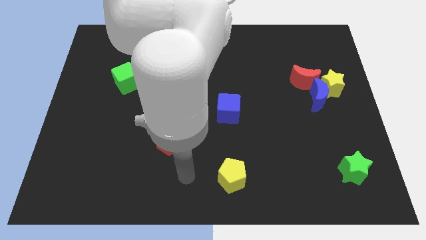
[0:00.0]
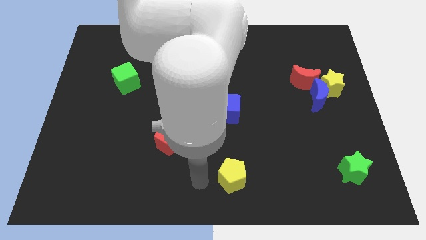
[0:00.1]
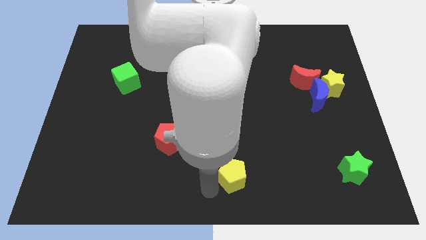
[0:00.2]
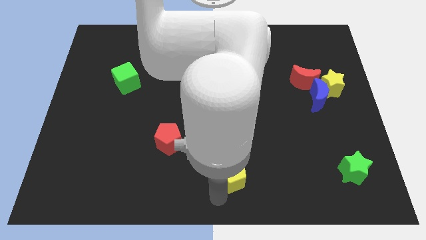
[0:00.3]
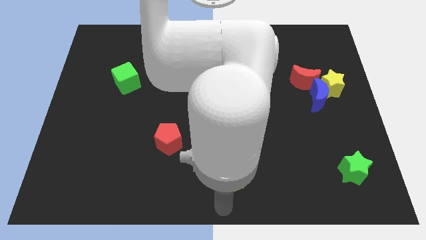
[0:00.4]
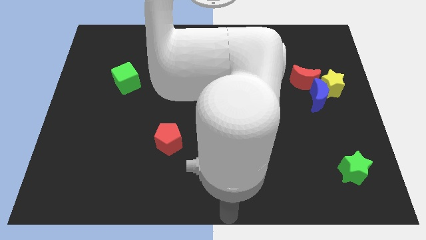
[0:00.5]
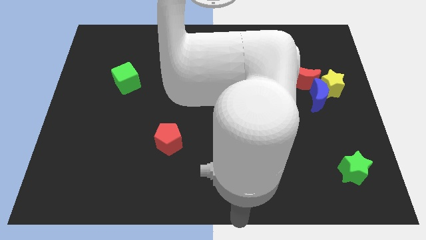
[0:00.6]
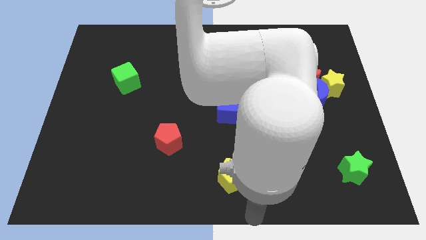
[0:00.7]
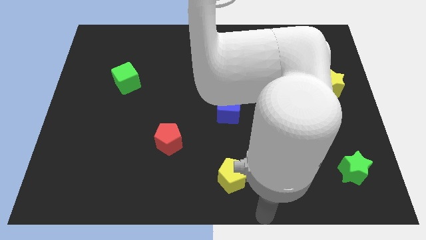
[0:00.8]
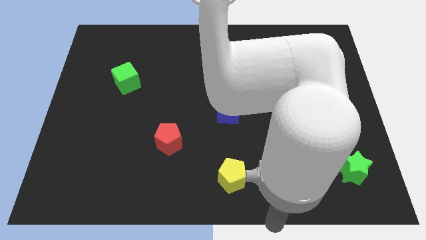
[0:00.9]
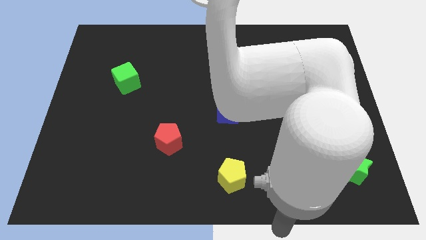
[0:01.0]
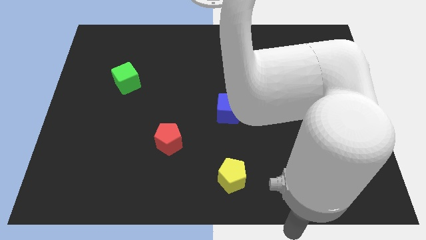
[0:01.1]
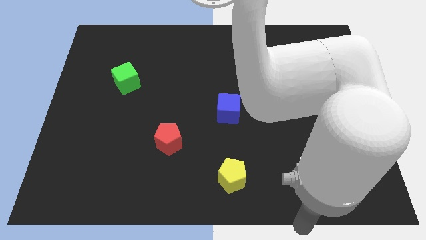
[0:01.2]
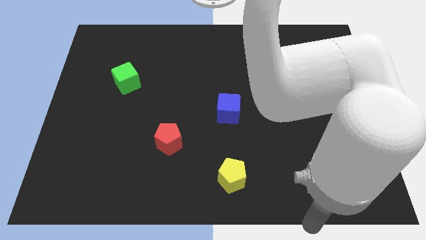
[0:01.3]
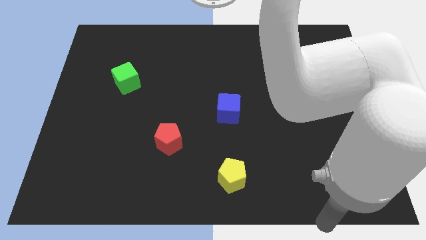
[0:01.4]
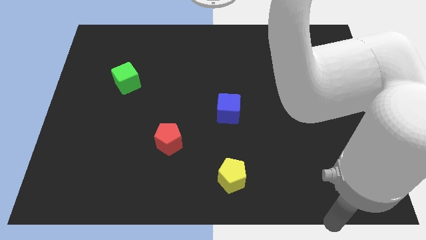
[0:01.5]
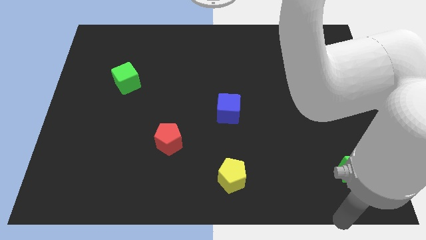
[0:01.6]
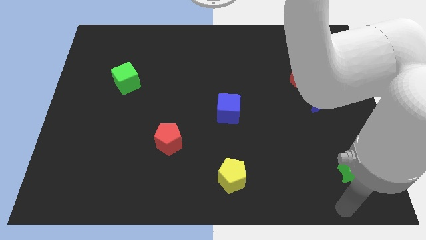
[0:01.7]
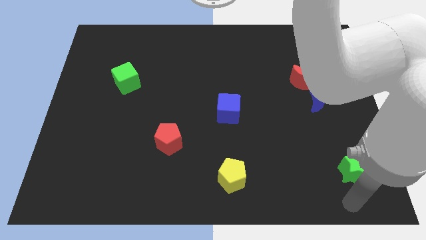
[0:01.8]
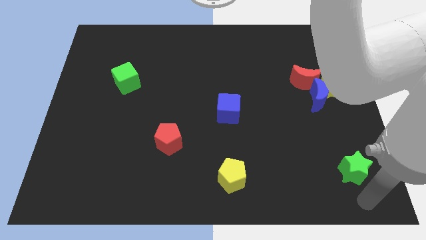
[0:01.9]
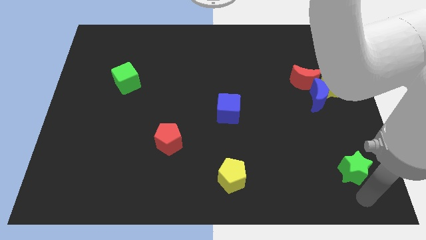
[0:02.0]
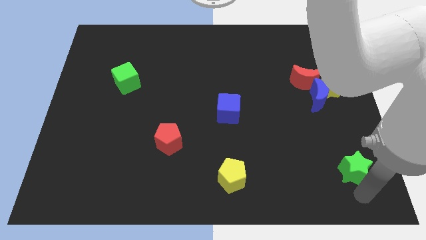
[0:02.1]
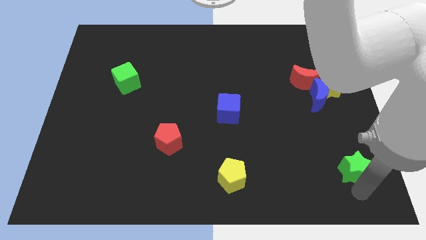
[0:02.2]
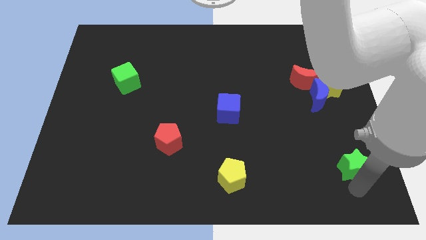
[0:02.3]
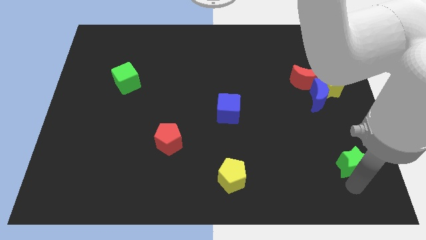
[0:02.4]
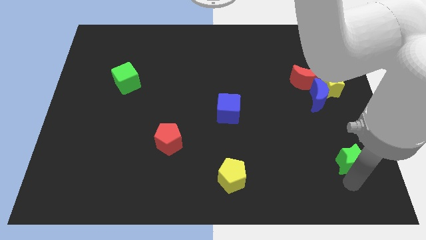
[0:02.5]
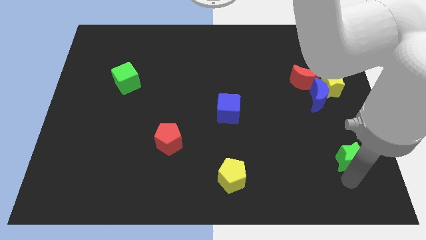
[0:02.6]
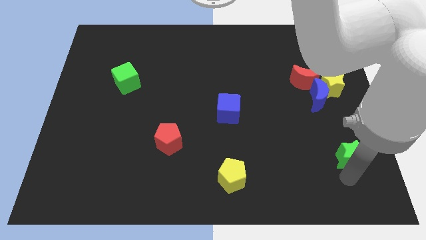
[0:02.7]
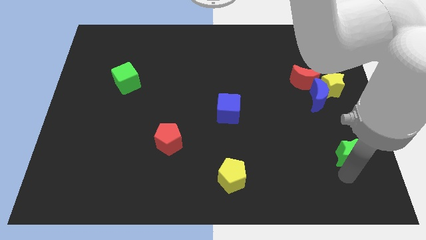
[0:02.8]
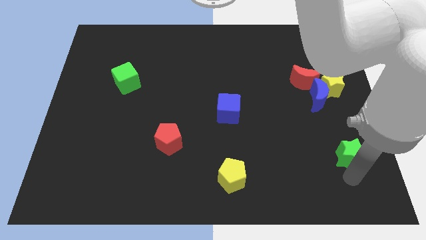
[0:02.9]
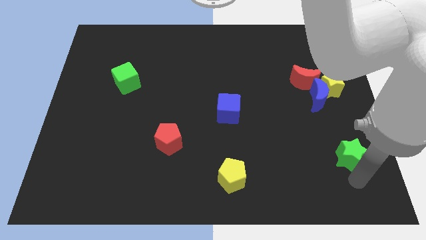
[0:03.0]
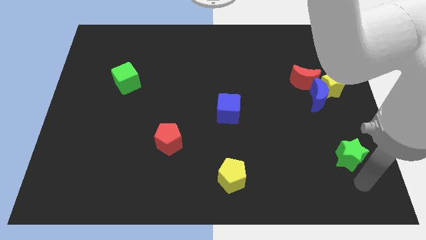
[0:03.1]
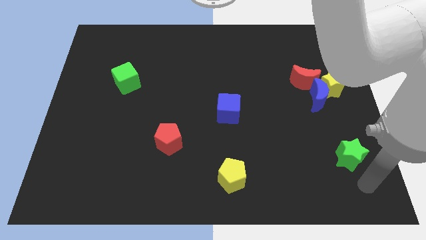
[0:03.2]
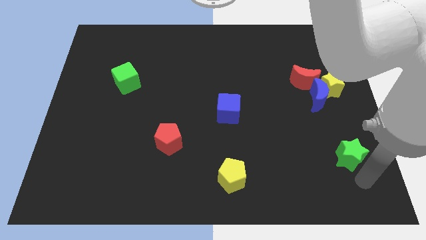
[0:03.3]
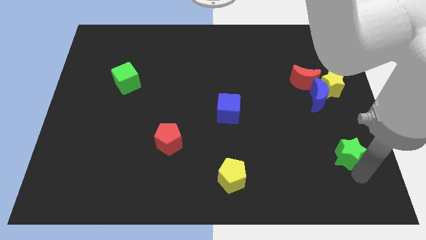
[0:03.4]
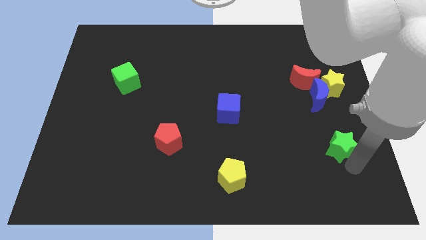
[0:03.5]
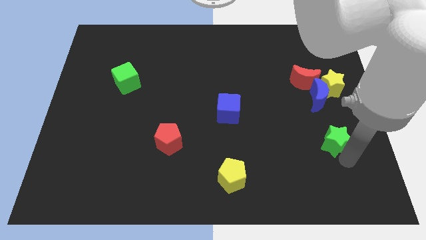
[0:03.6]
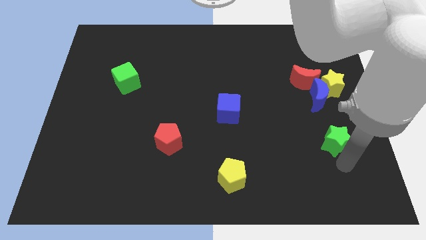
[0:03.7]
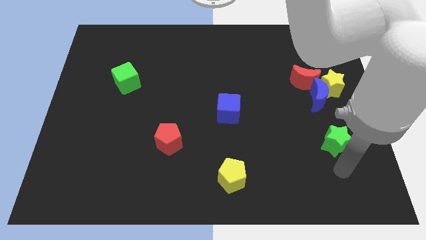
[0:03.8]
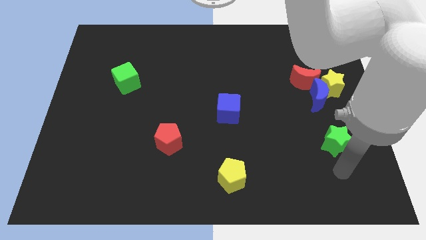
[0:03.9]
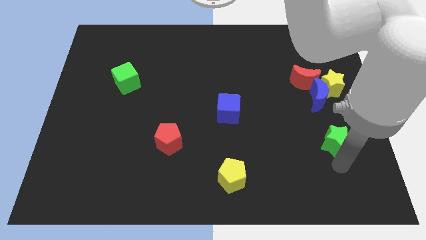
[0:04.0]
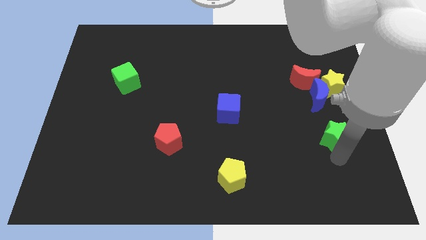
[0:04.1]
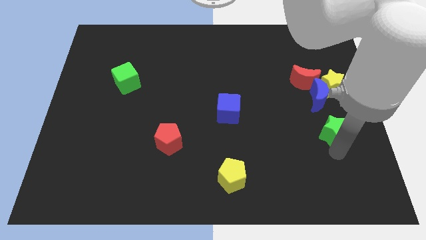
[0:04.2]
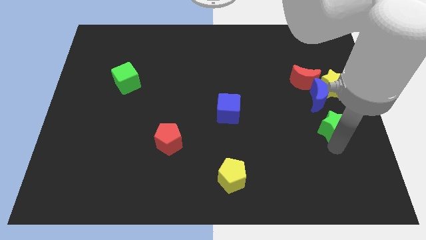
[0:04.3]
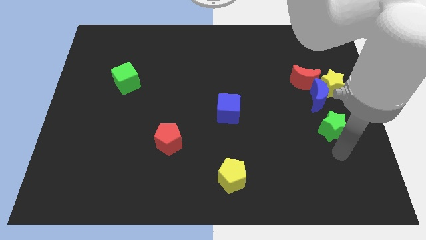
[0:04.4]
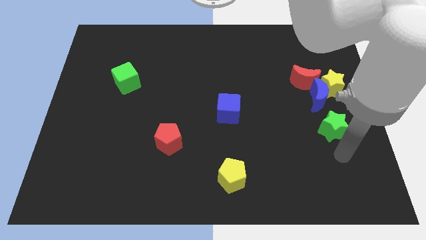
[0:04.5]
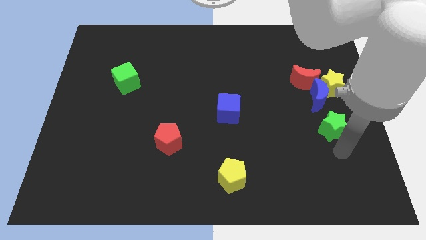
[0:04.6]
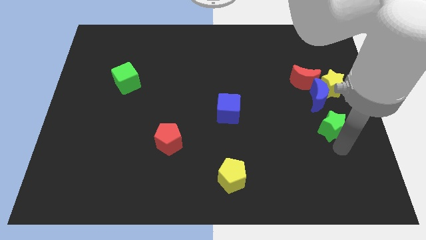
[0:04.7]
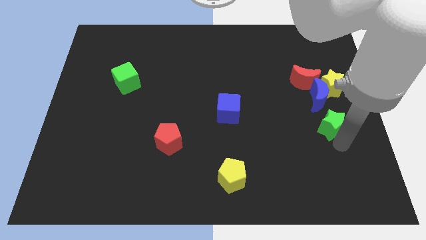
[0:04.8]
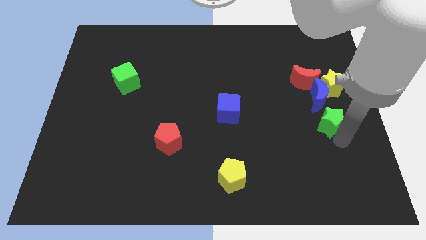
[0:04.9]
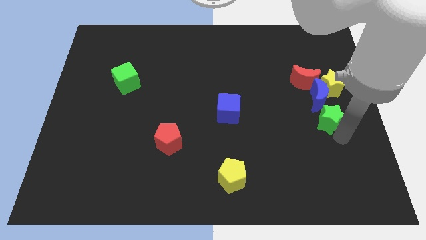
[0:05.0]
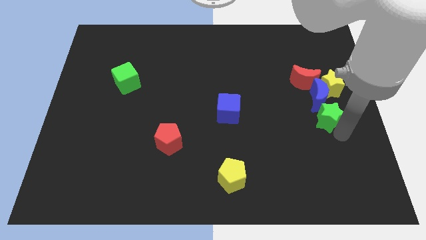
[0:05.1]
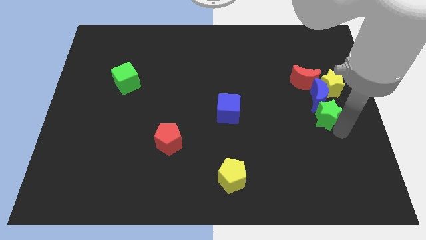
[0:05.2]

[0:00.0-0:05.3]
put the green star close to the blue moon

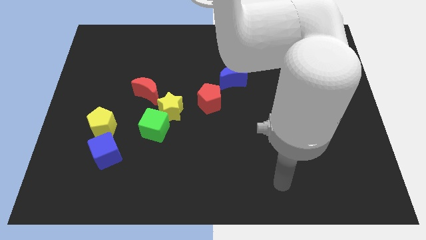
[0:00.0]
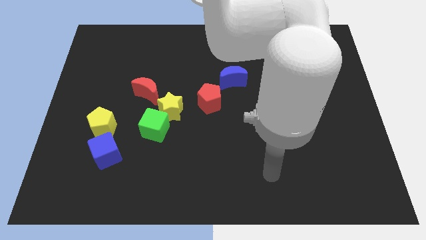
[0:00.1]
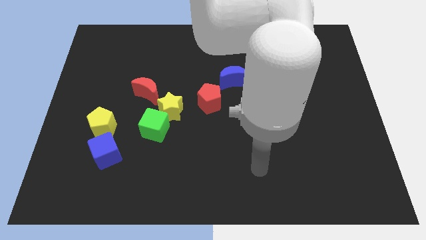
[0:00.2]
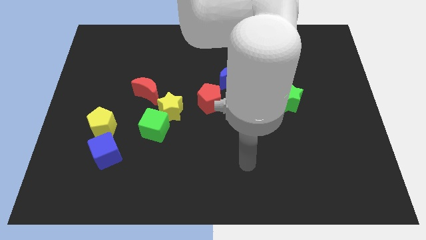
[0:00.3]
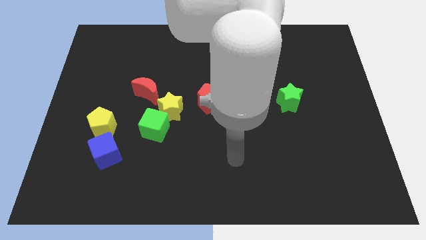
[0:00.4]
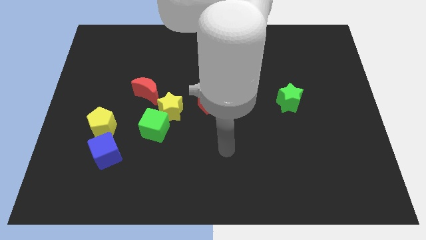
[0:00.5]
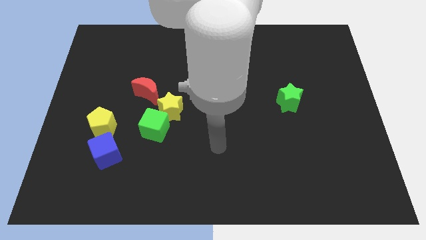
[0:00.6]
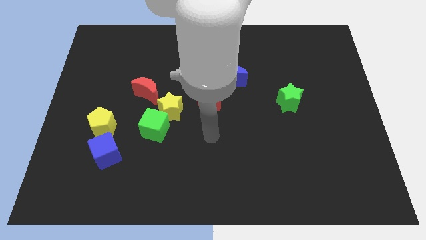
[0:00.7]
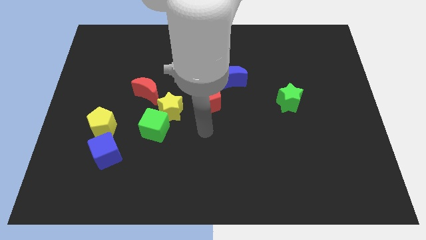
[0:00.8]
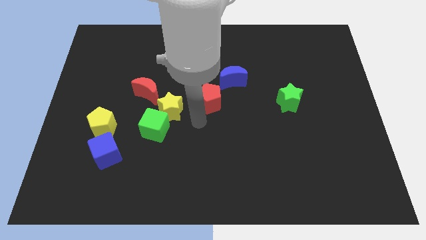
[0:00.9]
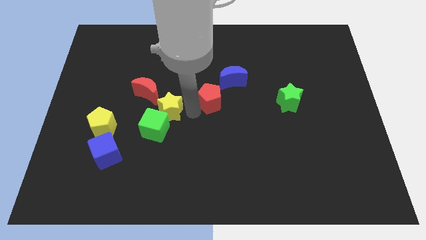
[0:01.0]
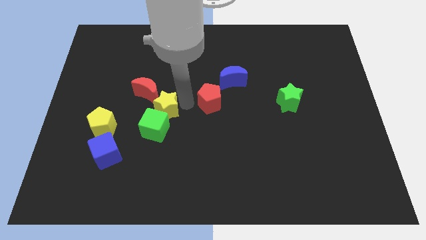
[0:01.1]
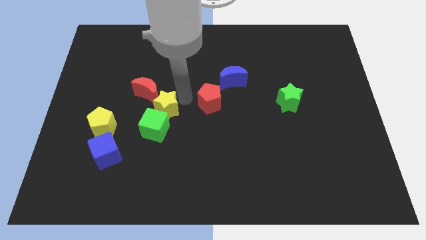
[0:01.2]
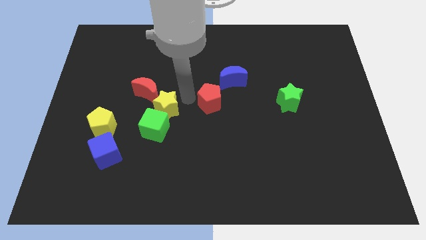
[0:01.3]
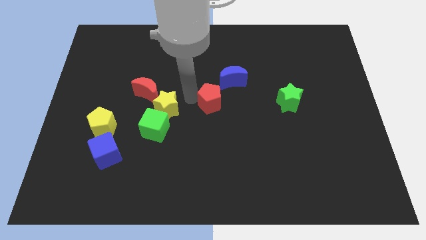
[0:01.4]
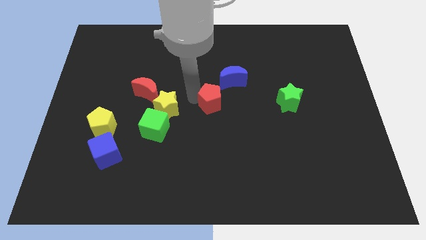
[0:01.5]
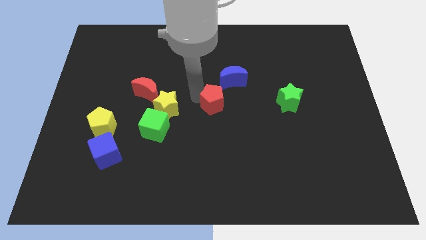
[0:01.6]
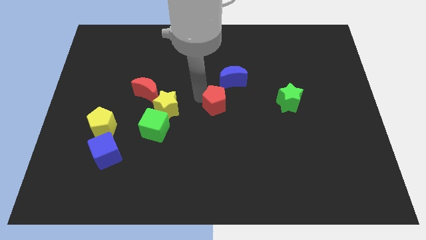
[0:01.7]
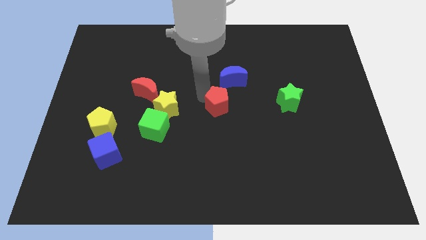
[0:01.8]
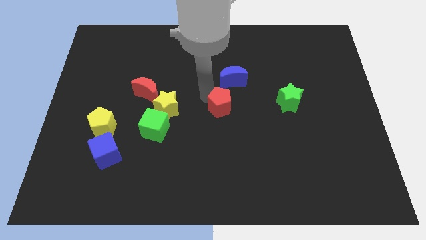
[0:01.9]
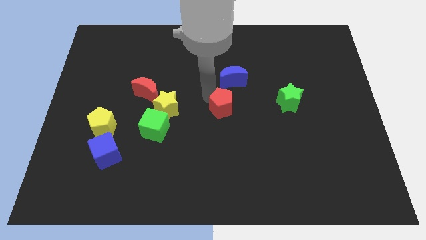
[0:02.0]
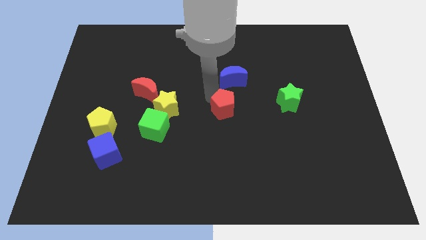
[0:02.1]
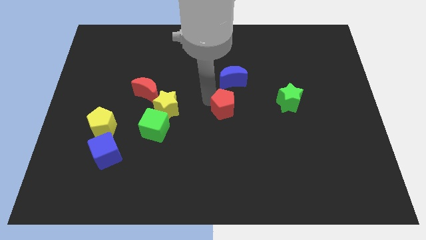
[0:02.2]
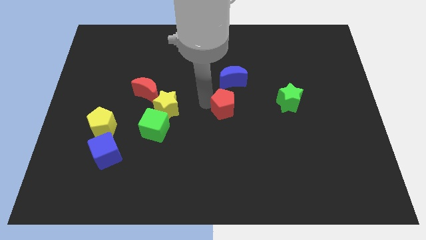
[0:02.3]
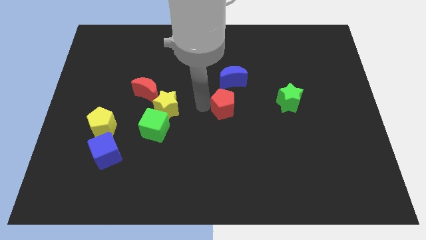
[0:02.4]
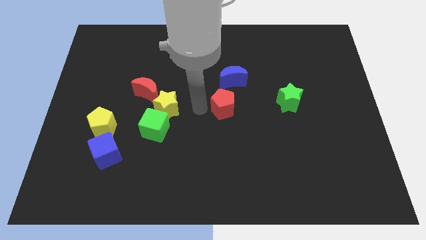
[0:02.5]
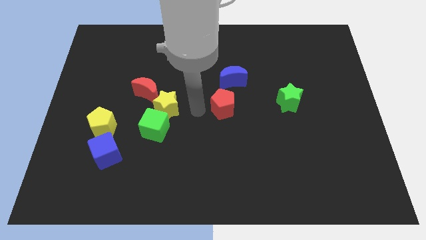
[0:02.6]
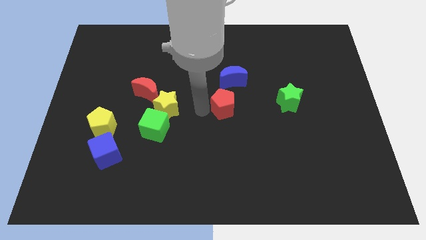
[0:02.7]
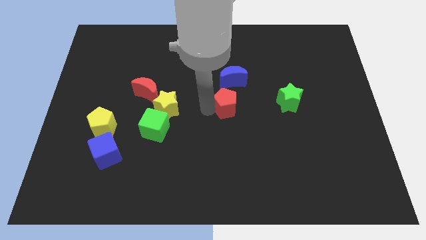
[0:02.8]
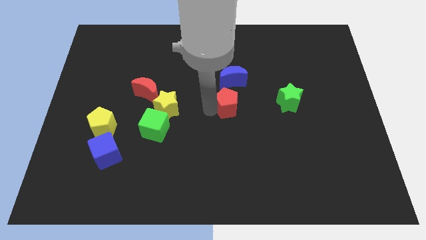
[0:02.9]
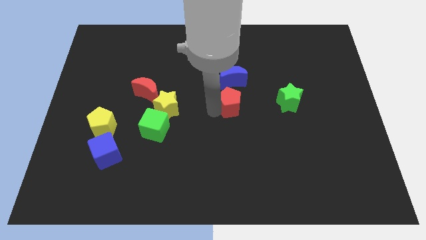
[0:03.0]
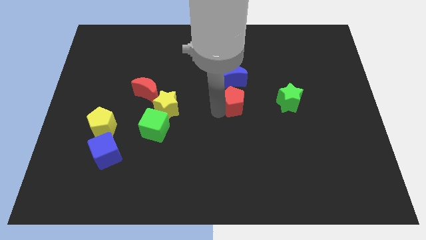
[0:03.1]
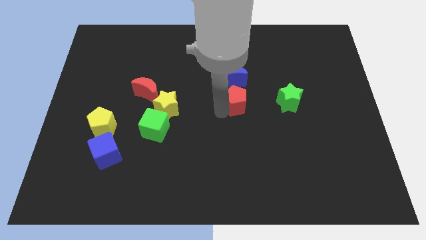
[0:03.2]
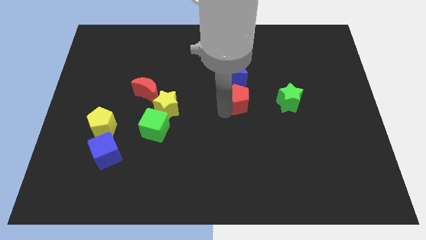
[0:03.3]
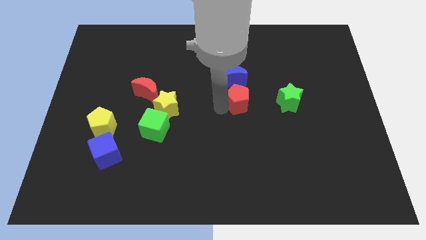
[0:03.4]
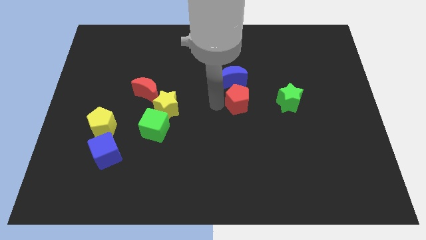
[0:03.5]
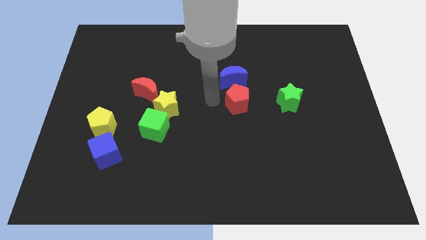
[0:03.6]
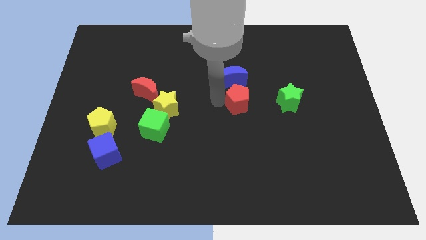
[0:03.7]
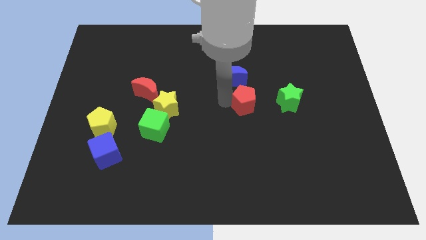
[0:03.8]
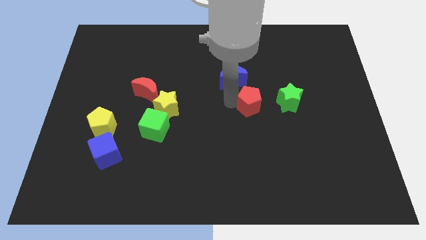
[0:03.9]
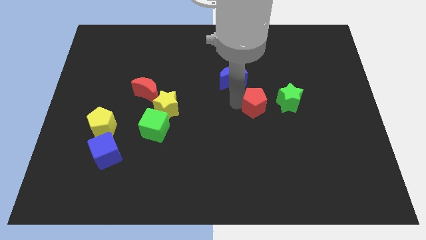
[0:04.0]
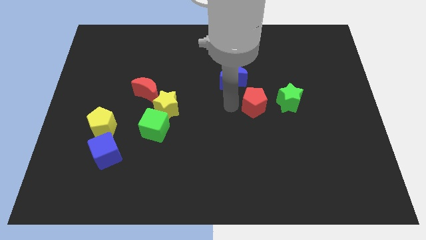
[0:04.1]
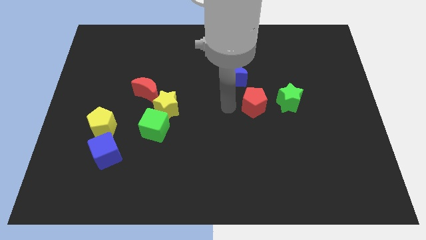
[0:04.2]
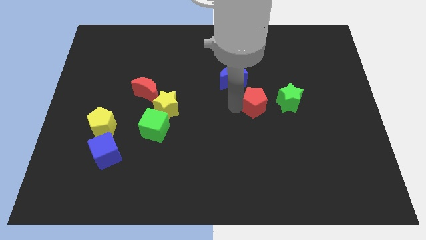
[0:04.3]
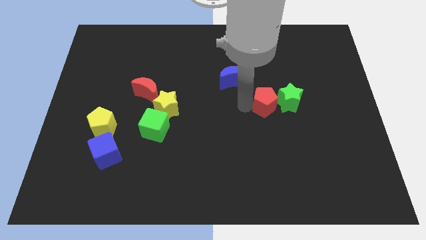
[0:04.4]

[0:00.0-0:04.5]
move the red pentagon close to the green star
